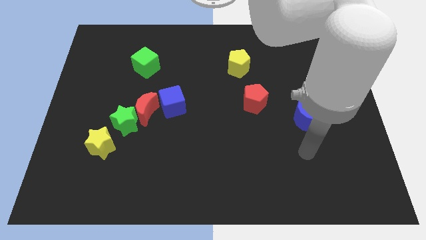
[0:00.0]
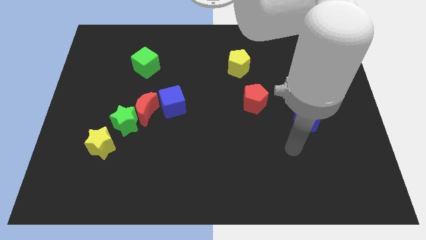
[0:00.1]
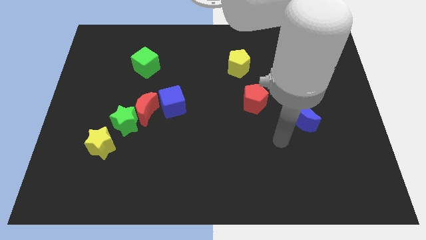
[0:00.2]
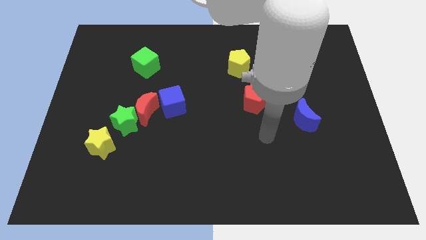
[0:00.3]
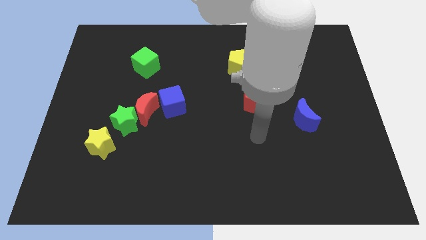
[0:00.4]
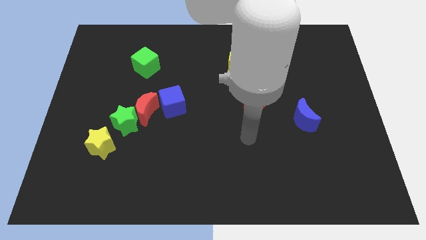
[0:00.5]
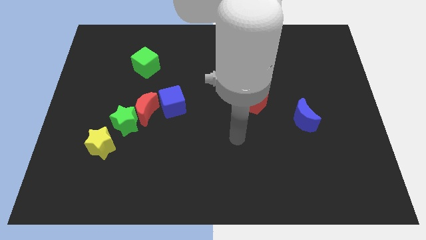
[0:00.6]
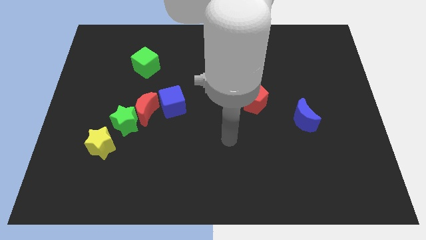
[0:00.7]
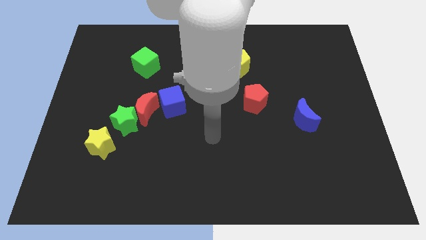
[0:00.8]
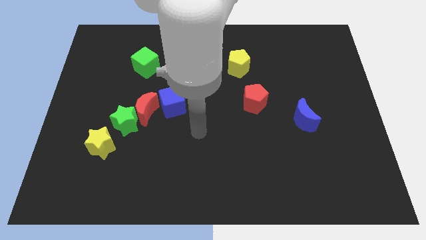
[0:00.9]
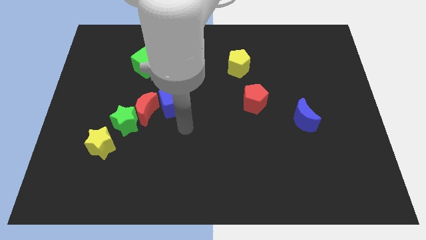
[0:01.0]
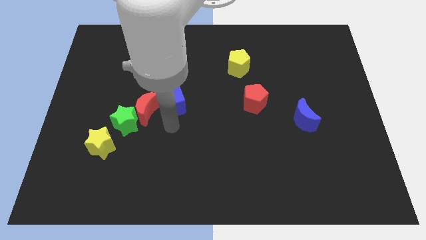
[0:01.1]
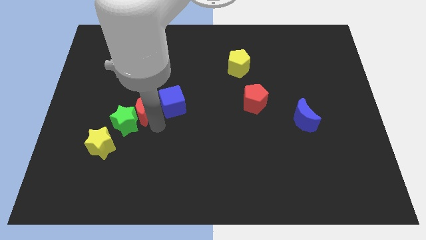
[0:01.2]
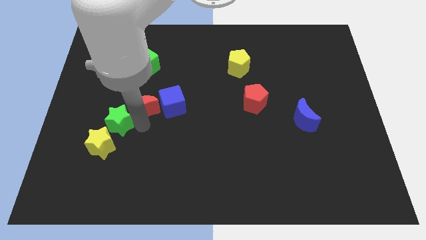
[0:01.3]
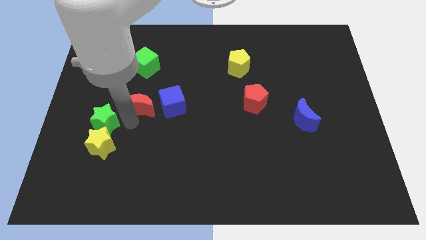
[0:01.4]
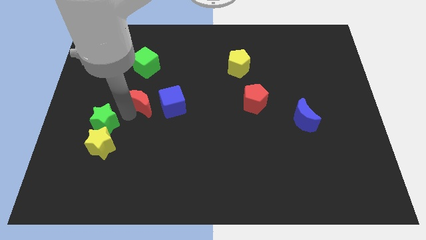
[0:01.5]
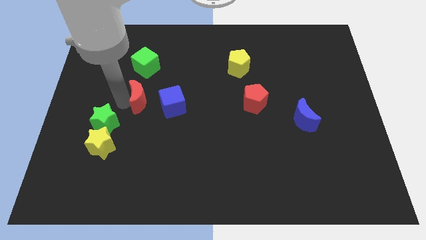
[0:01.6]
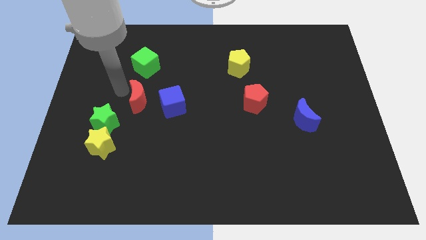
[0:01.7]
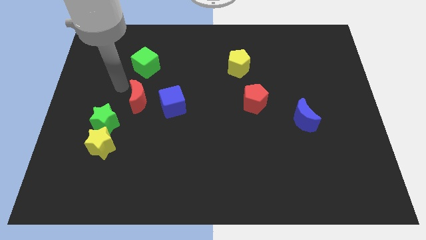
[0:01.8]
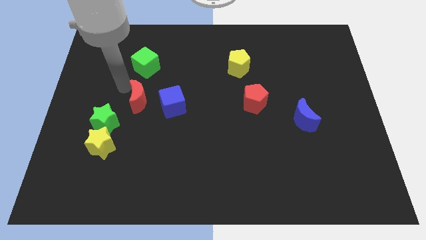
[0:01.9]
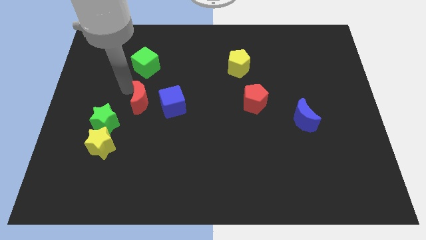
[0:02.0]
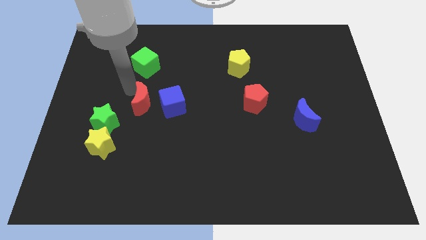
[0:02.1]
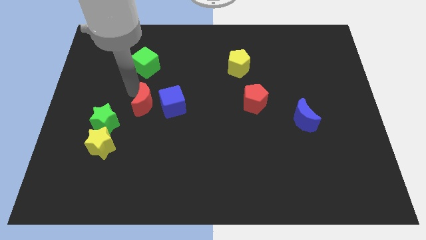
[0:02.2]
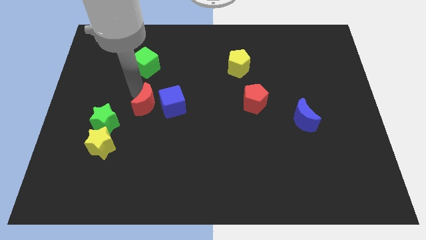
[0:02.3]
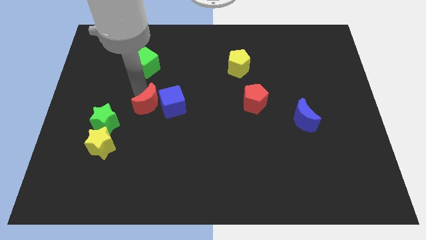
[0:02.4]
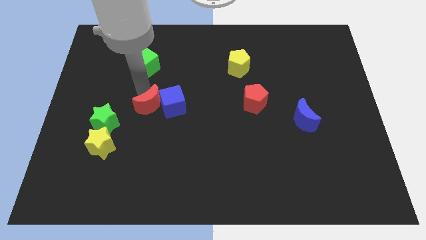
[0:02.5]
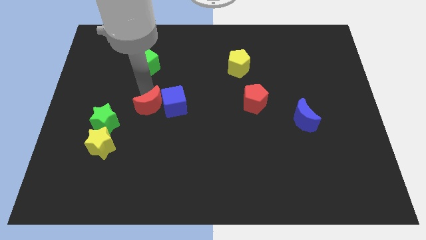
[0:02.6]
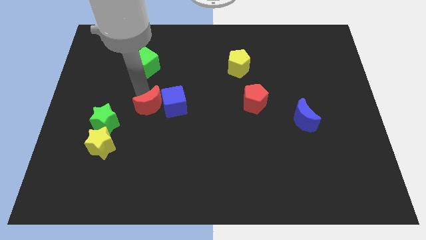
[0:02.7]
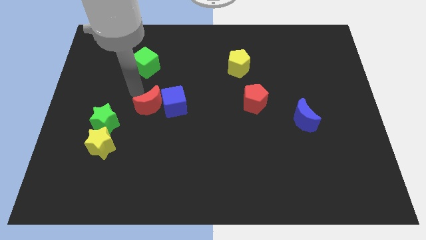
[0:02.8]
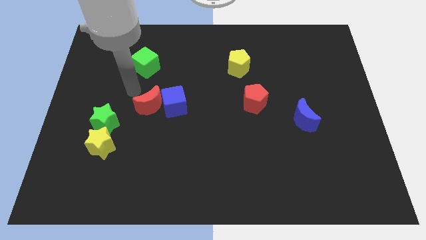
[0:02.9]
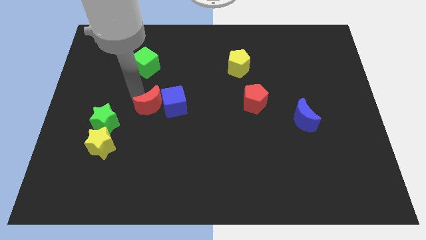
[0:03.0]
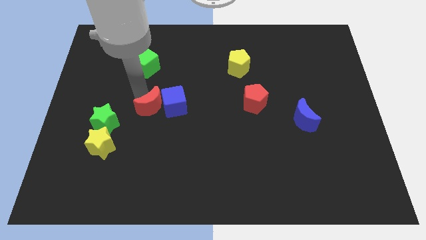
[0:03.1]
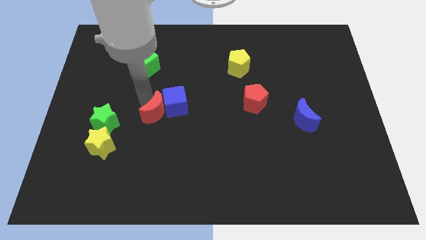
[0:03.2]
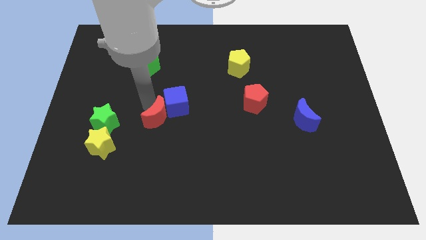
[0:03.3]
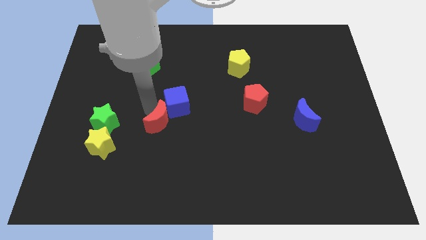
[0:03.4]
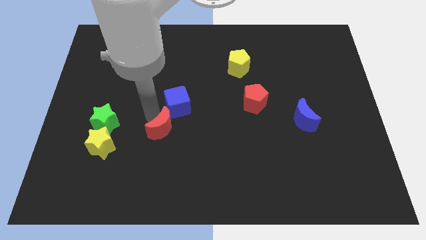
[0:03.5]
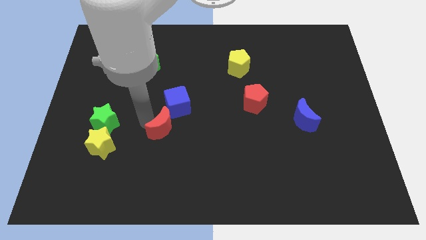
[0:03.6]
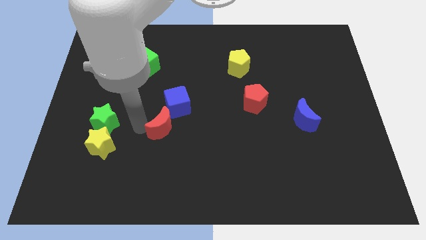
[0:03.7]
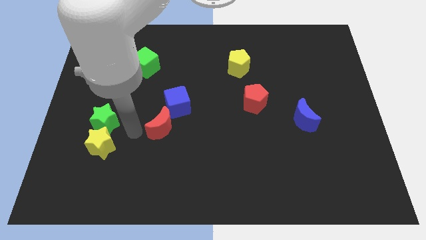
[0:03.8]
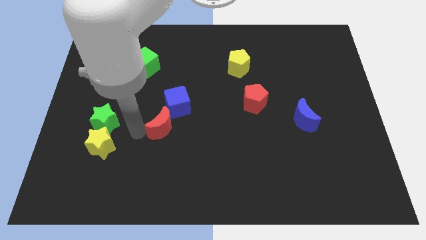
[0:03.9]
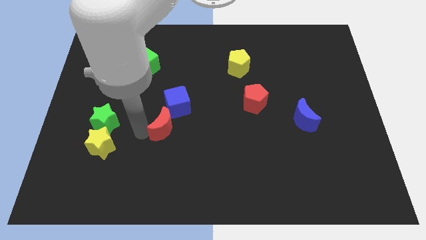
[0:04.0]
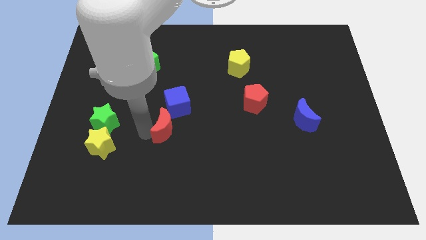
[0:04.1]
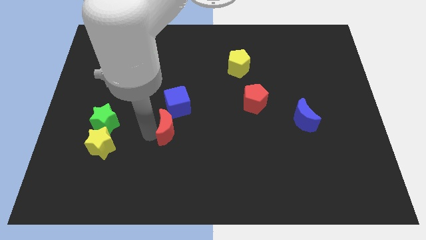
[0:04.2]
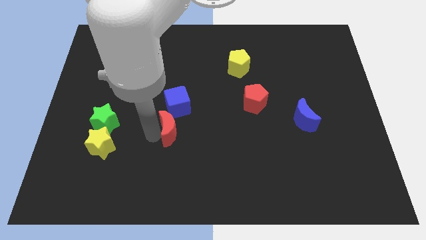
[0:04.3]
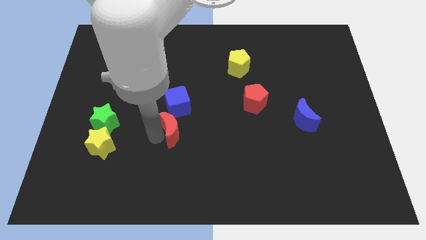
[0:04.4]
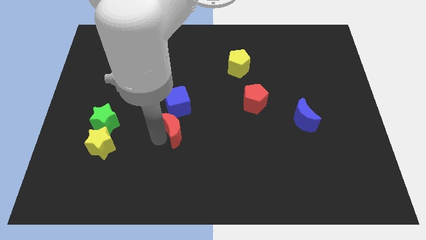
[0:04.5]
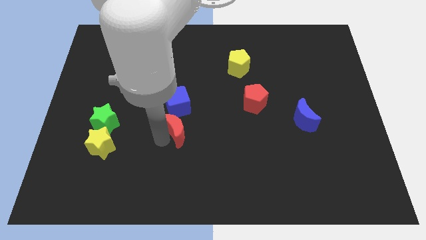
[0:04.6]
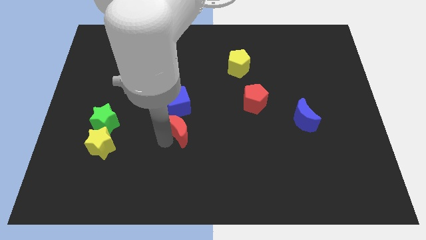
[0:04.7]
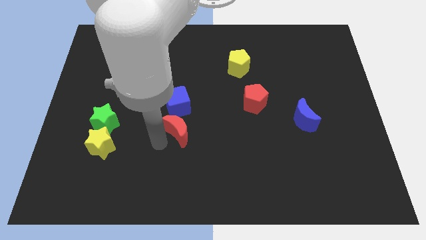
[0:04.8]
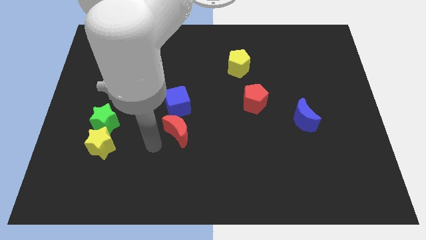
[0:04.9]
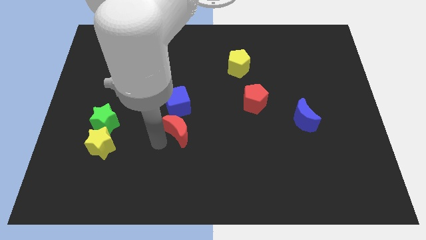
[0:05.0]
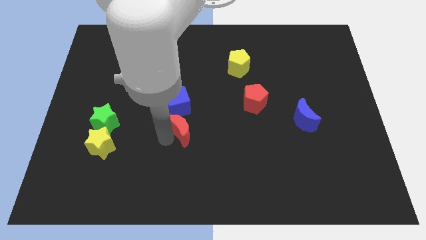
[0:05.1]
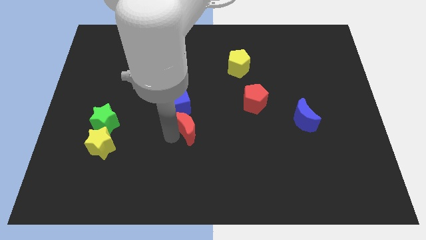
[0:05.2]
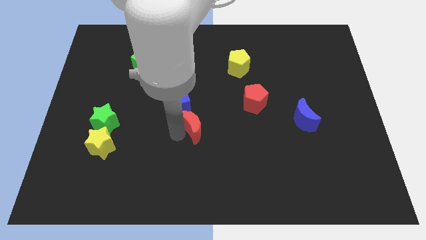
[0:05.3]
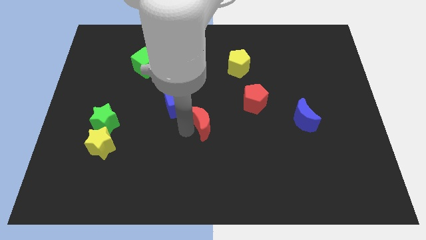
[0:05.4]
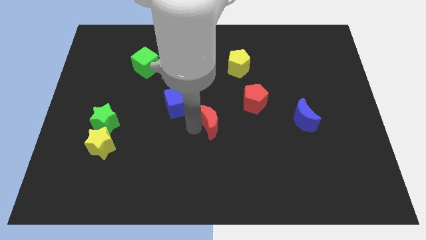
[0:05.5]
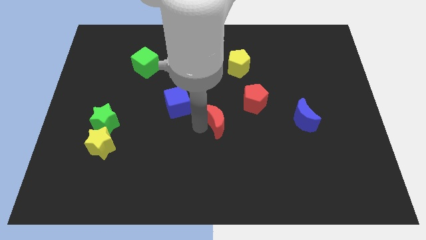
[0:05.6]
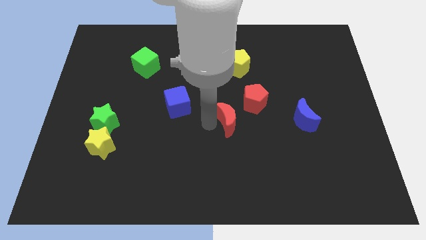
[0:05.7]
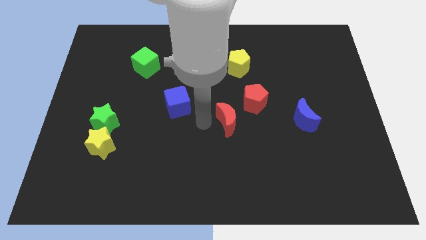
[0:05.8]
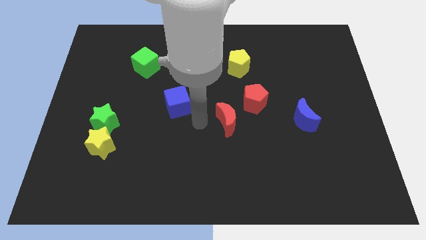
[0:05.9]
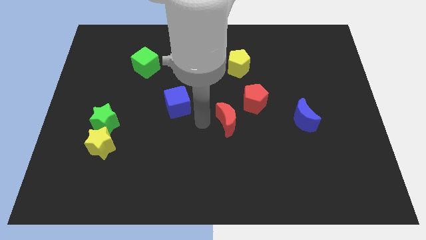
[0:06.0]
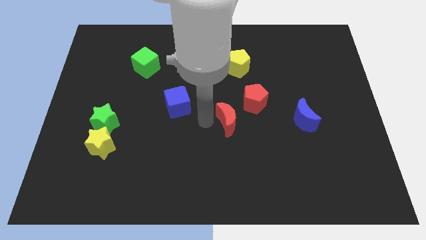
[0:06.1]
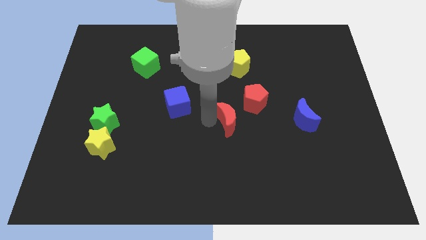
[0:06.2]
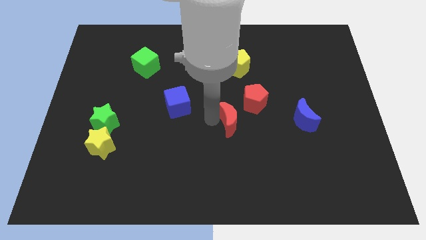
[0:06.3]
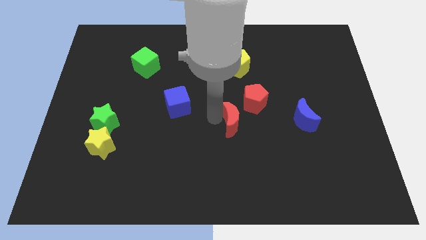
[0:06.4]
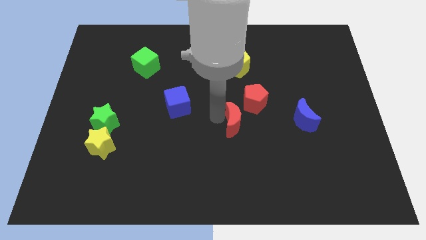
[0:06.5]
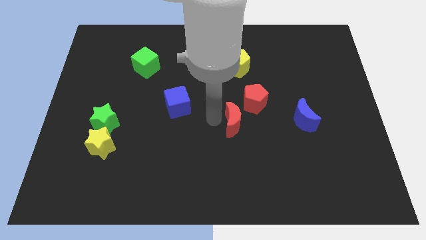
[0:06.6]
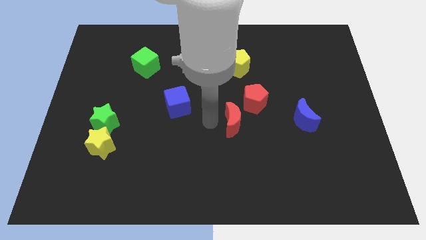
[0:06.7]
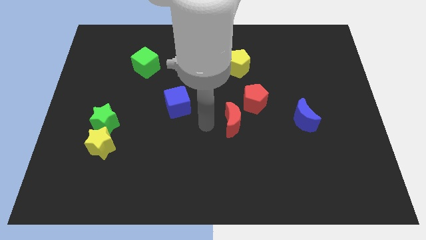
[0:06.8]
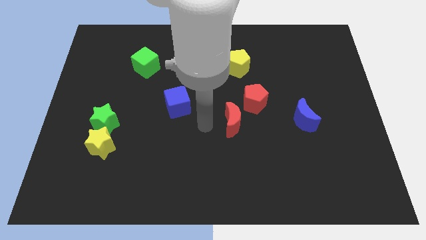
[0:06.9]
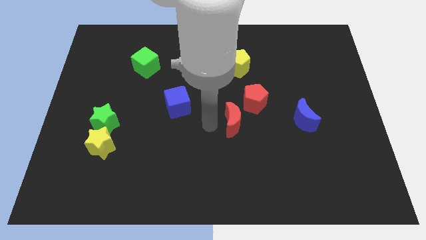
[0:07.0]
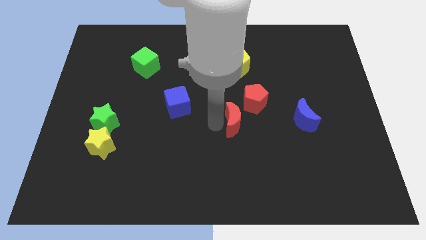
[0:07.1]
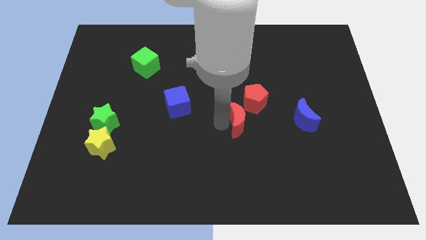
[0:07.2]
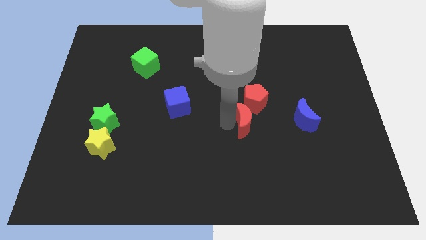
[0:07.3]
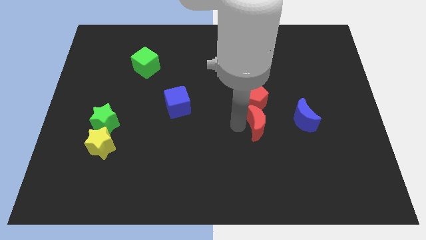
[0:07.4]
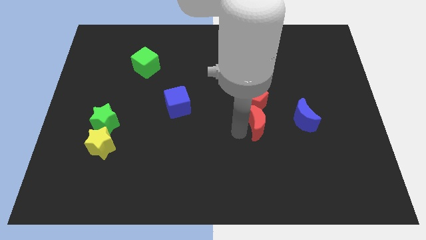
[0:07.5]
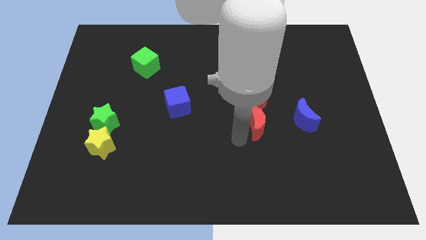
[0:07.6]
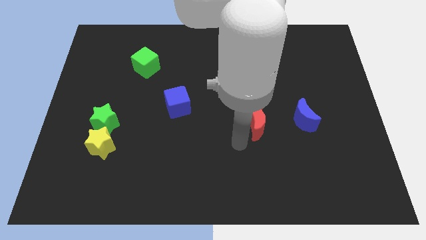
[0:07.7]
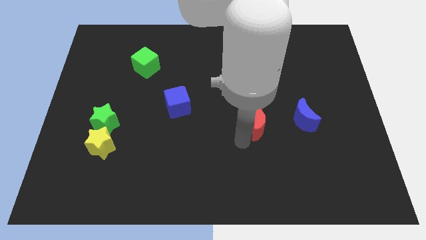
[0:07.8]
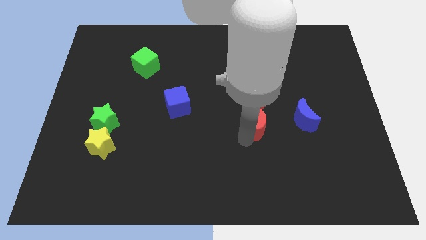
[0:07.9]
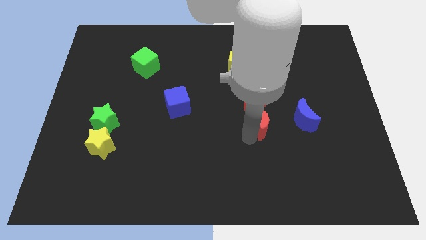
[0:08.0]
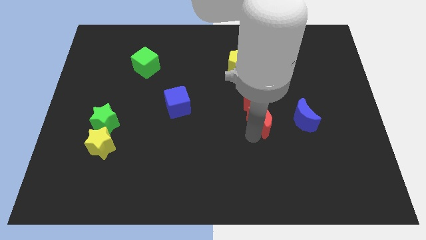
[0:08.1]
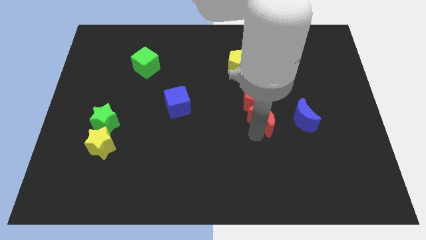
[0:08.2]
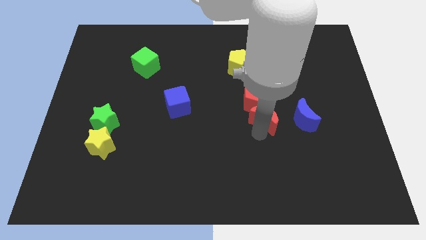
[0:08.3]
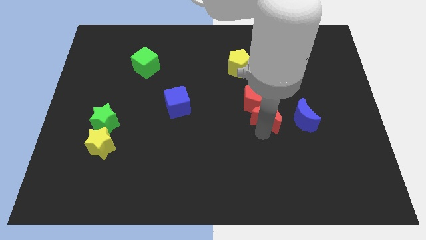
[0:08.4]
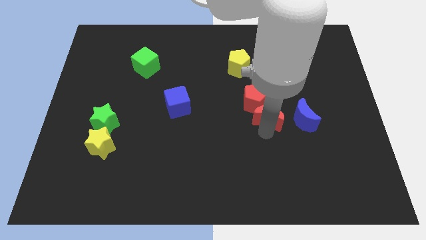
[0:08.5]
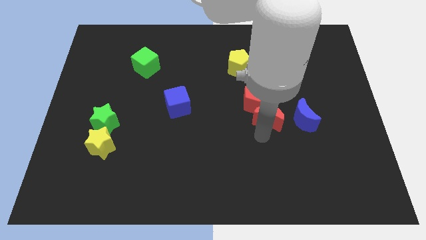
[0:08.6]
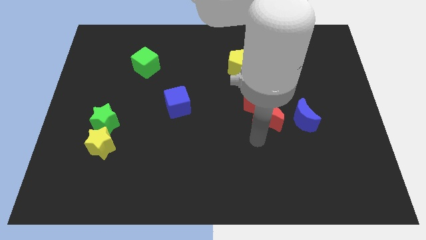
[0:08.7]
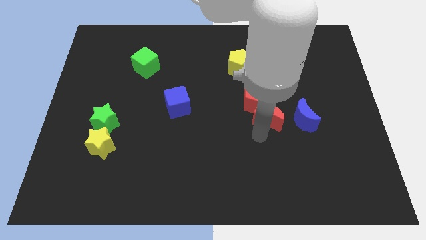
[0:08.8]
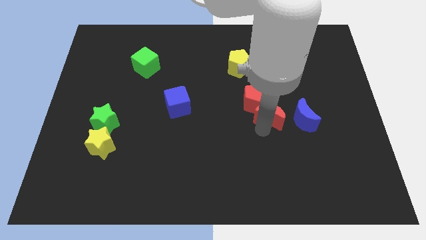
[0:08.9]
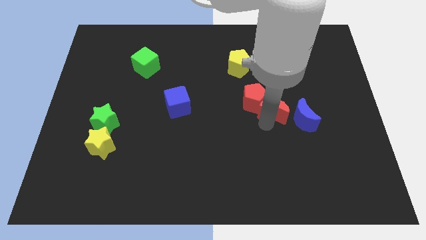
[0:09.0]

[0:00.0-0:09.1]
put the red moon to the top left side of the blue moon
